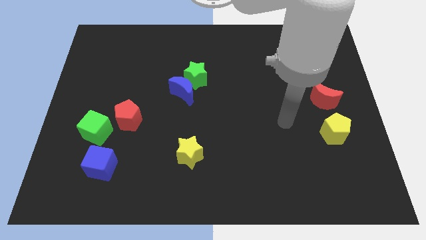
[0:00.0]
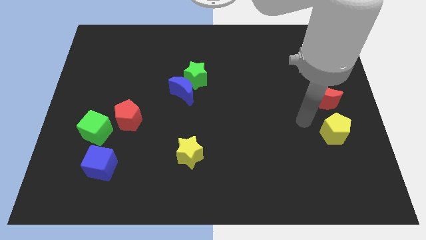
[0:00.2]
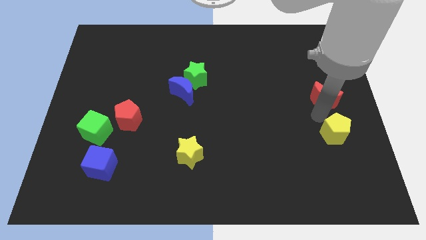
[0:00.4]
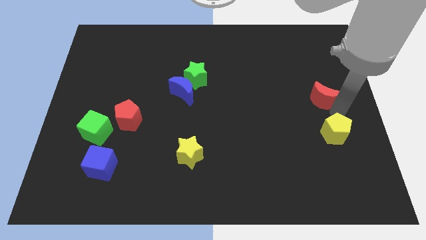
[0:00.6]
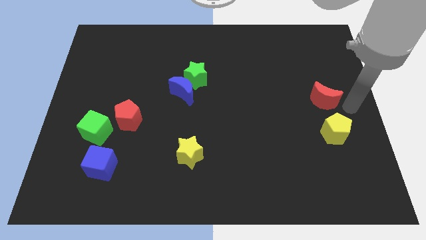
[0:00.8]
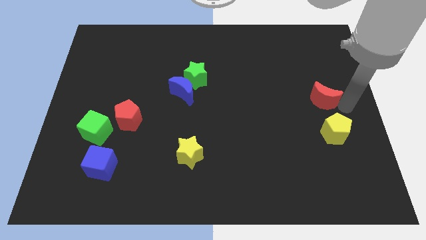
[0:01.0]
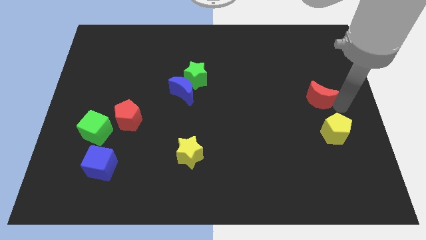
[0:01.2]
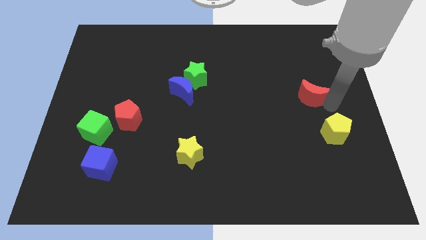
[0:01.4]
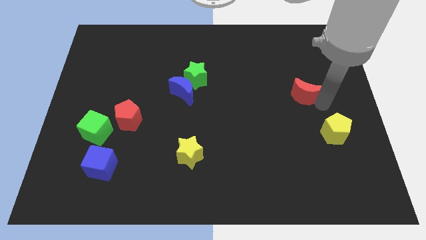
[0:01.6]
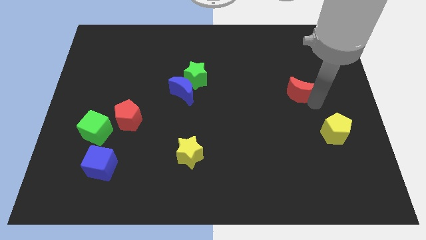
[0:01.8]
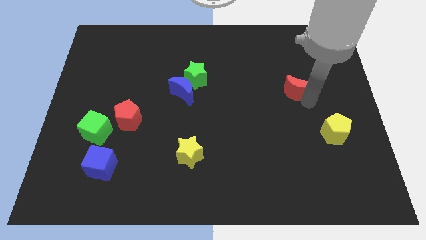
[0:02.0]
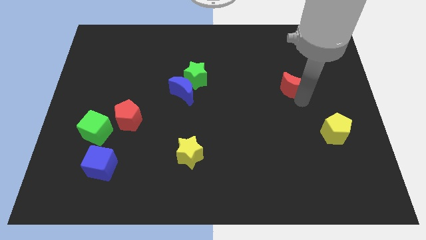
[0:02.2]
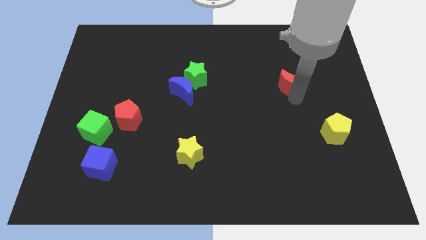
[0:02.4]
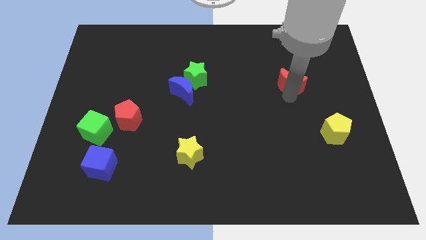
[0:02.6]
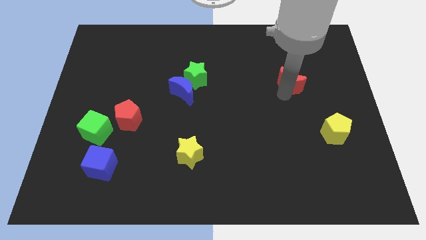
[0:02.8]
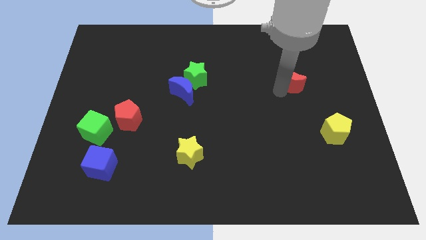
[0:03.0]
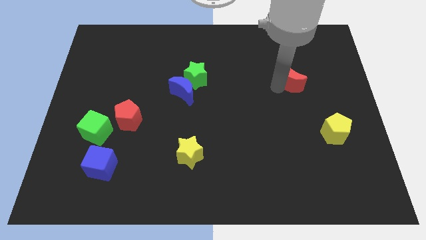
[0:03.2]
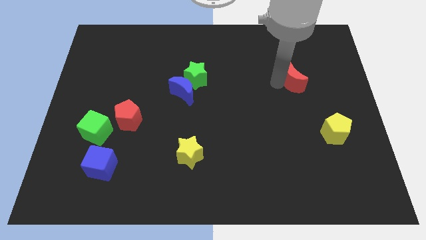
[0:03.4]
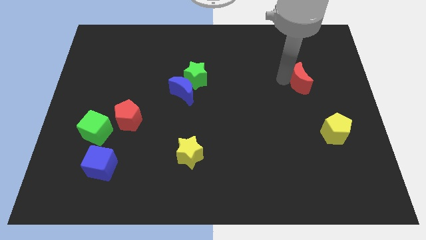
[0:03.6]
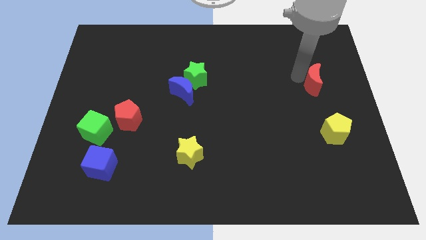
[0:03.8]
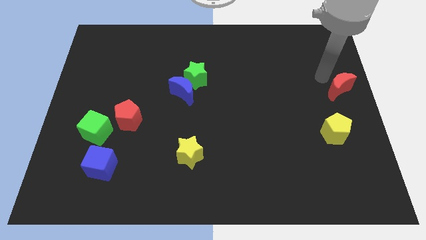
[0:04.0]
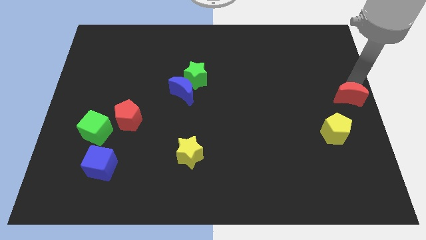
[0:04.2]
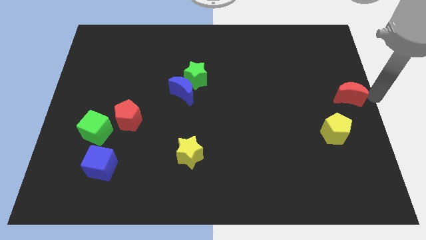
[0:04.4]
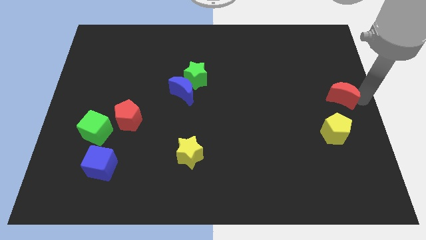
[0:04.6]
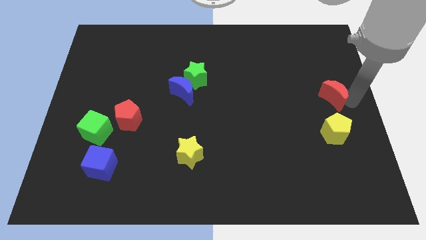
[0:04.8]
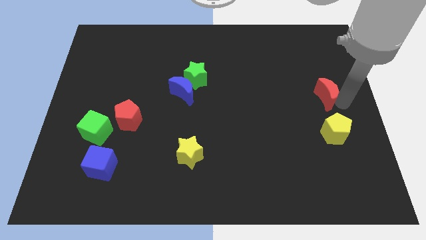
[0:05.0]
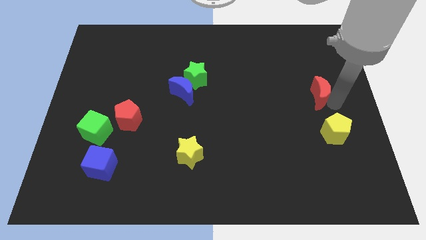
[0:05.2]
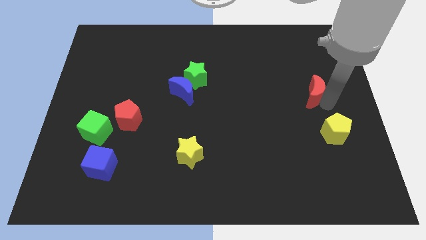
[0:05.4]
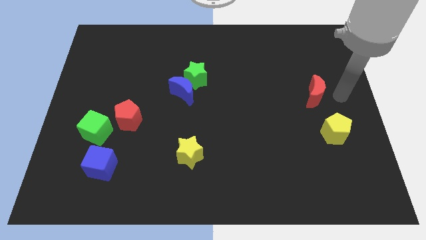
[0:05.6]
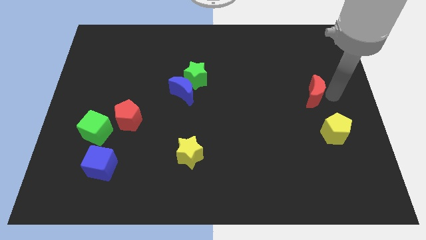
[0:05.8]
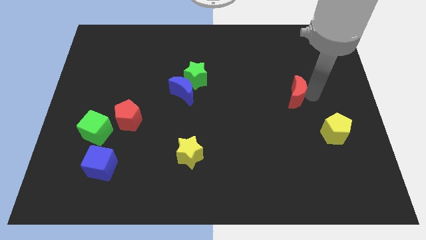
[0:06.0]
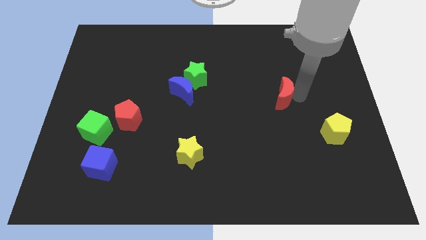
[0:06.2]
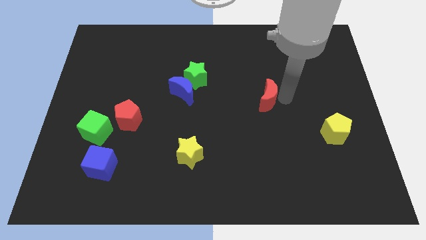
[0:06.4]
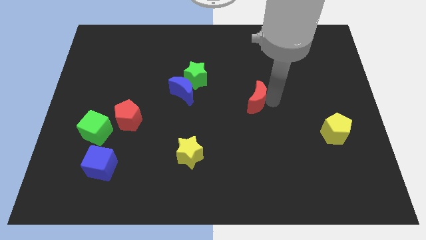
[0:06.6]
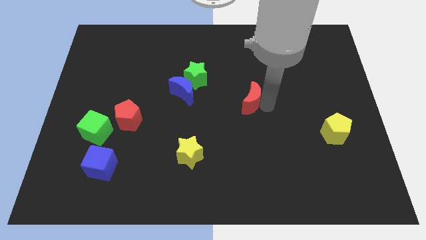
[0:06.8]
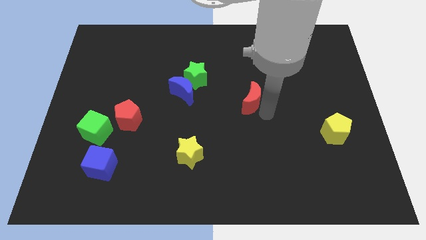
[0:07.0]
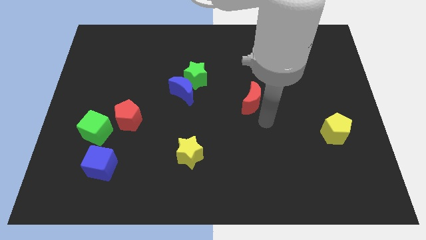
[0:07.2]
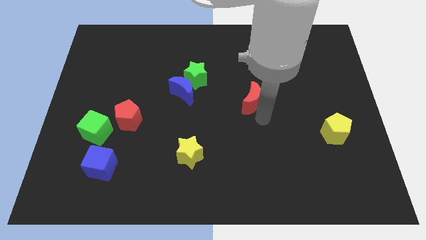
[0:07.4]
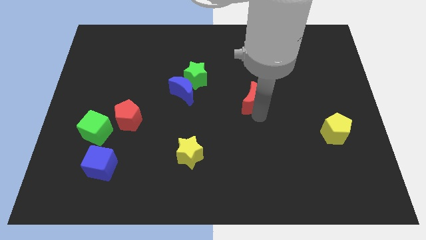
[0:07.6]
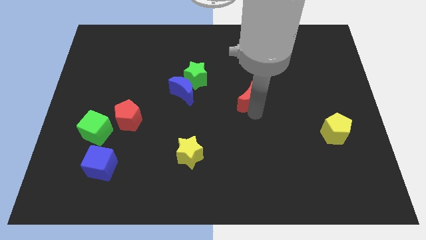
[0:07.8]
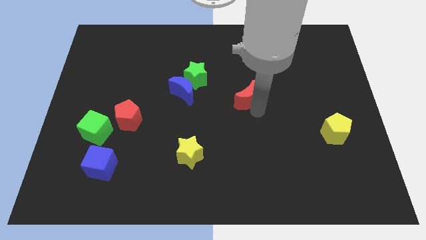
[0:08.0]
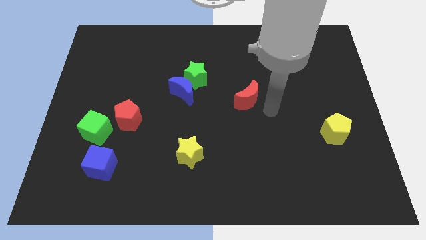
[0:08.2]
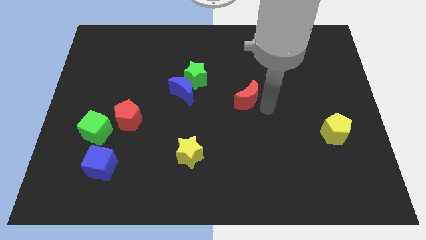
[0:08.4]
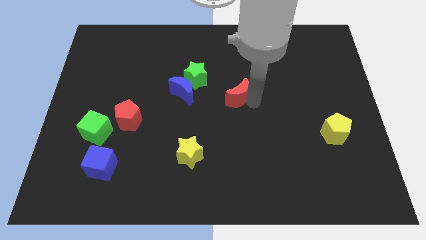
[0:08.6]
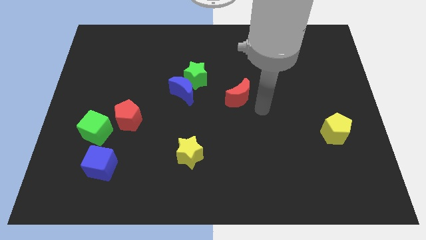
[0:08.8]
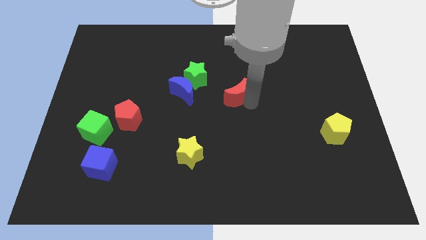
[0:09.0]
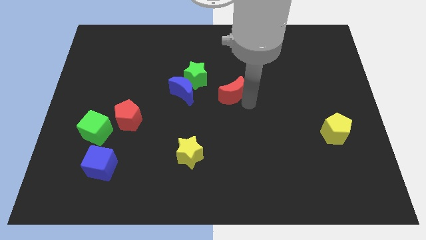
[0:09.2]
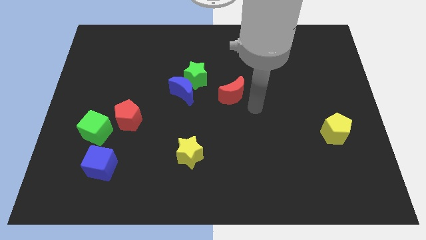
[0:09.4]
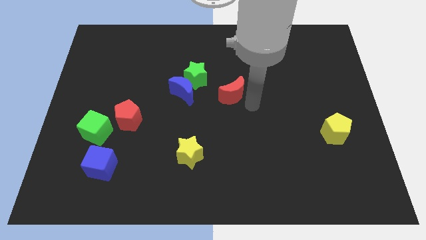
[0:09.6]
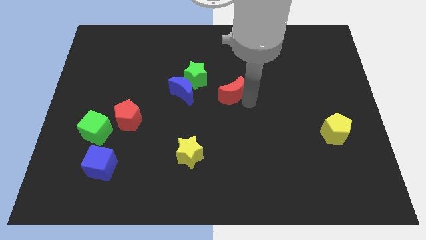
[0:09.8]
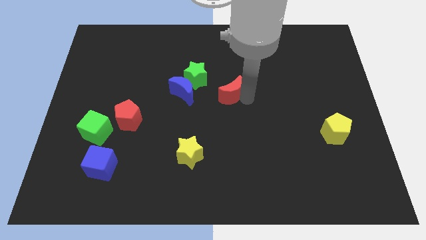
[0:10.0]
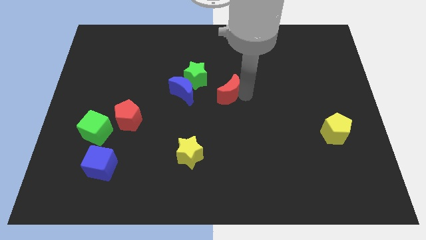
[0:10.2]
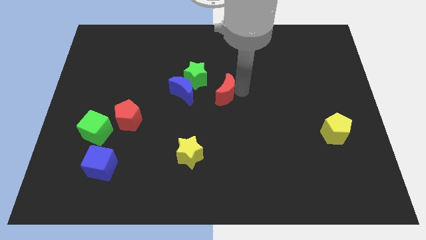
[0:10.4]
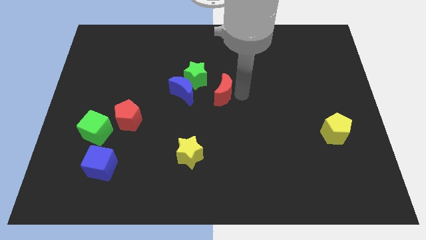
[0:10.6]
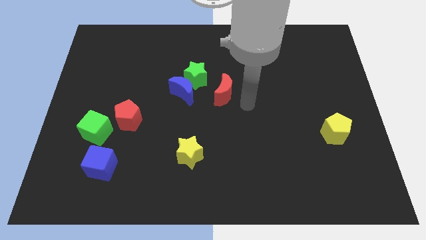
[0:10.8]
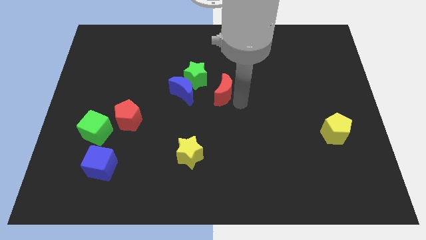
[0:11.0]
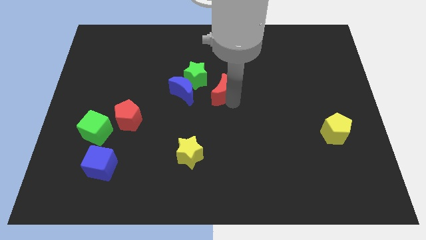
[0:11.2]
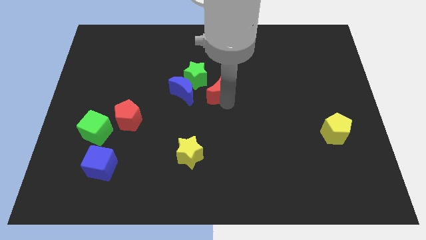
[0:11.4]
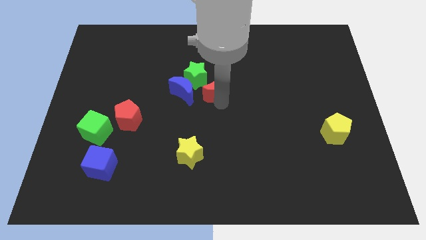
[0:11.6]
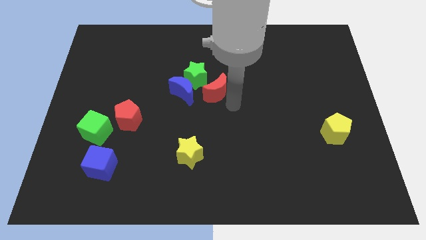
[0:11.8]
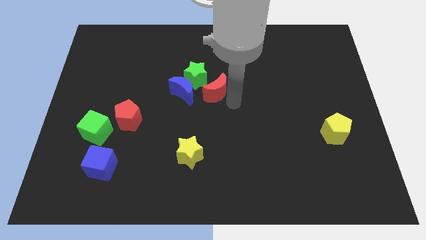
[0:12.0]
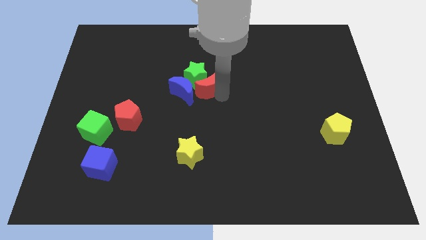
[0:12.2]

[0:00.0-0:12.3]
push the red moon to the green star
